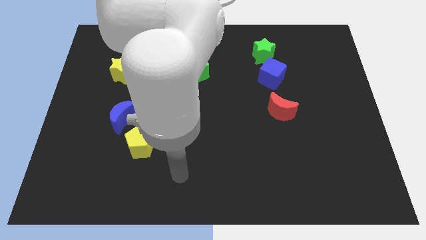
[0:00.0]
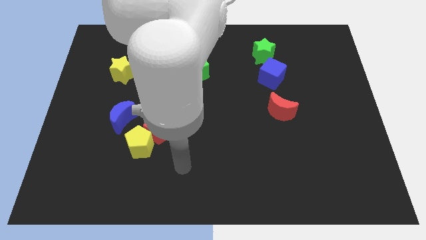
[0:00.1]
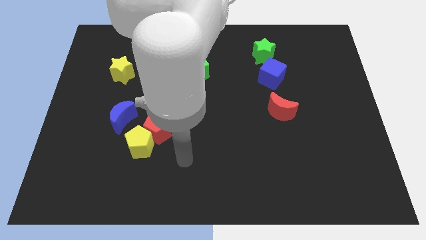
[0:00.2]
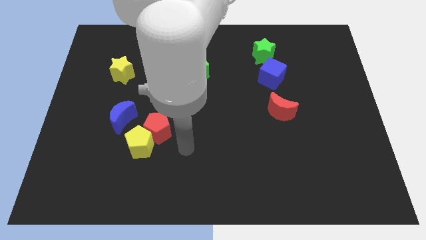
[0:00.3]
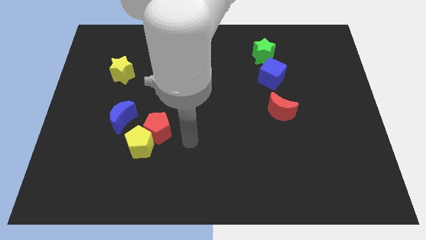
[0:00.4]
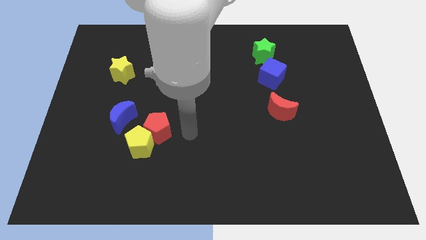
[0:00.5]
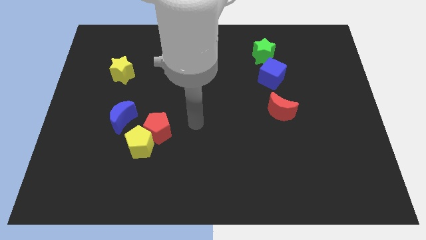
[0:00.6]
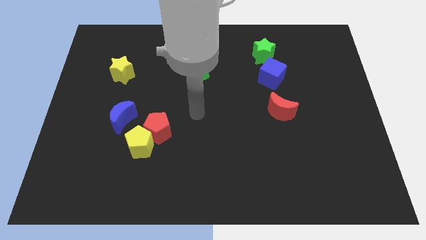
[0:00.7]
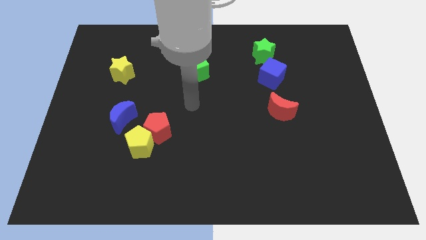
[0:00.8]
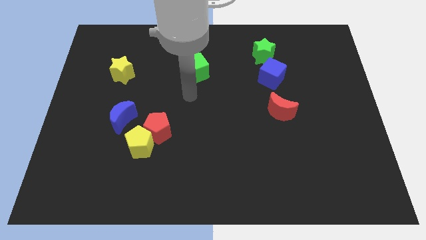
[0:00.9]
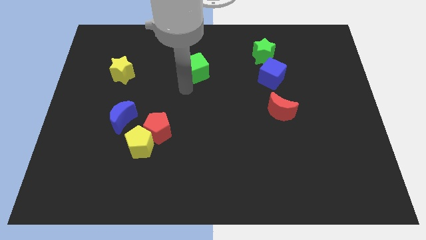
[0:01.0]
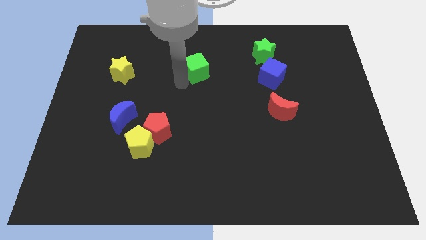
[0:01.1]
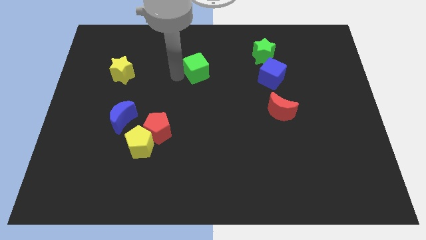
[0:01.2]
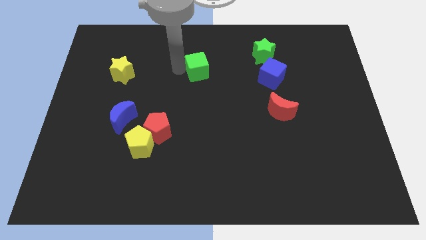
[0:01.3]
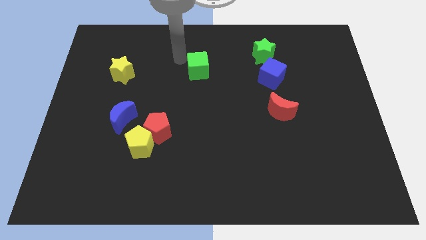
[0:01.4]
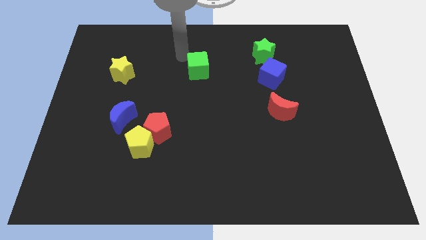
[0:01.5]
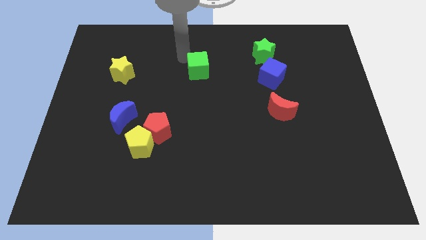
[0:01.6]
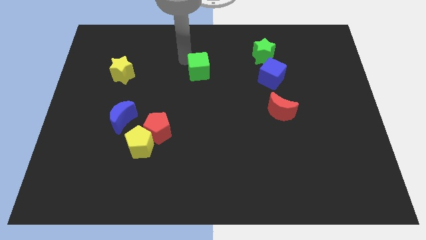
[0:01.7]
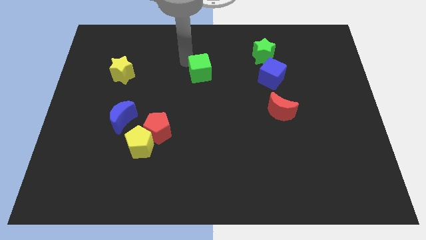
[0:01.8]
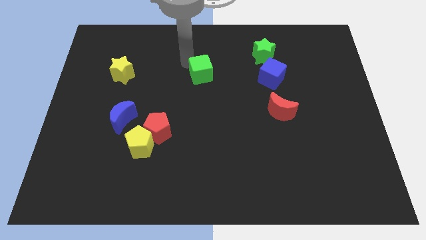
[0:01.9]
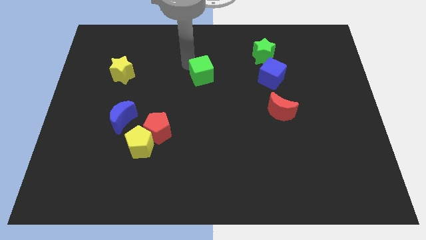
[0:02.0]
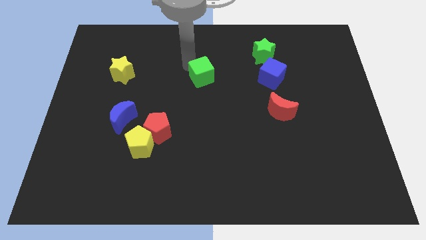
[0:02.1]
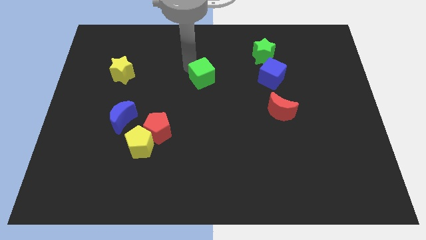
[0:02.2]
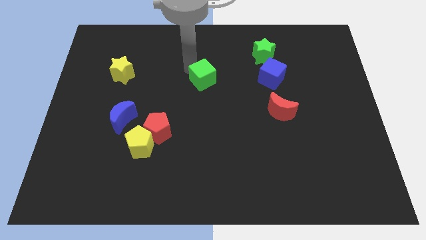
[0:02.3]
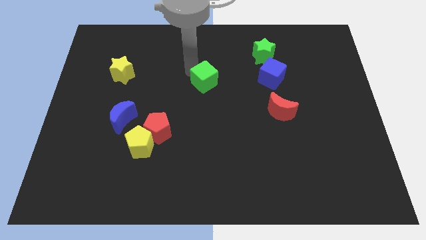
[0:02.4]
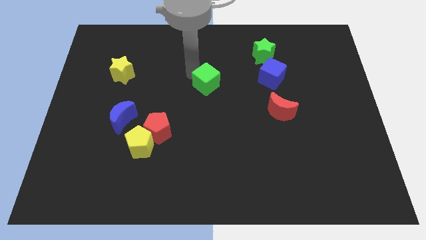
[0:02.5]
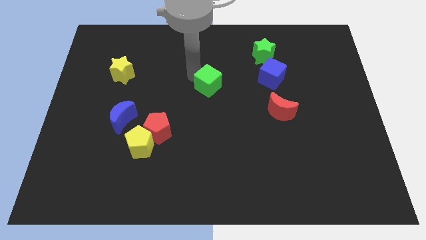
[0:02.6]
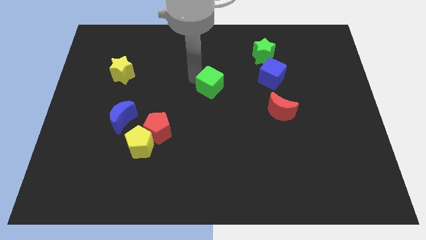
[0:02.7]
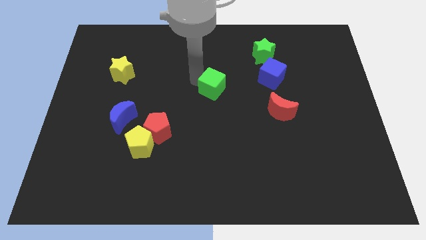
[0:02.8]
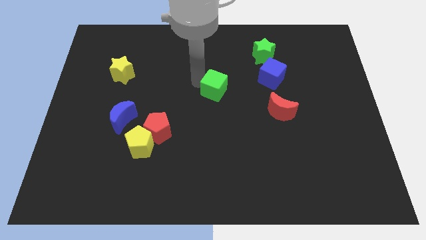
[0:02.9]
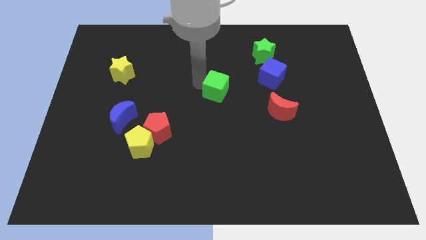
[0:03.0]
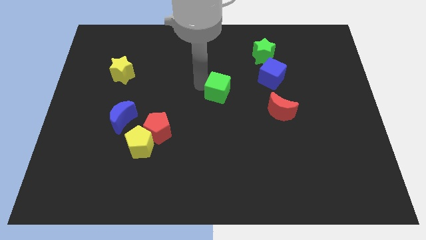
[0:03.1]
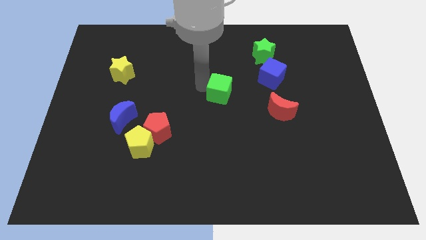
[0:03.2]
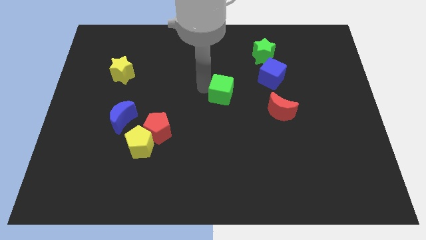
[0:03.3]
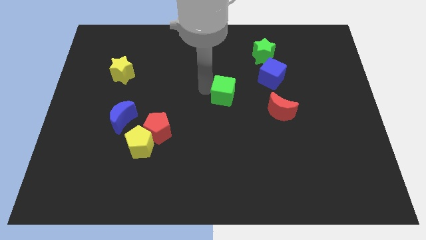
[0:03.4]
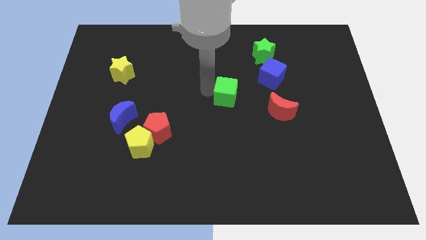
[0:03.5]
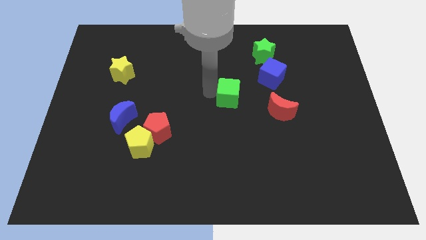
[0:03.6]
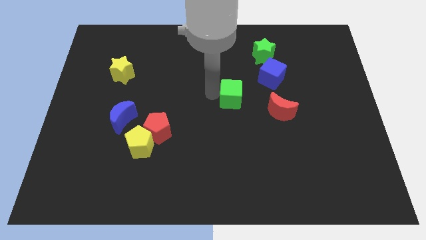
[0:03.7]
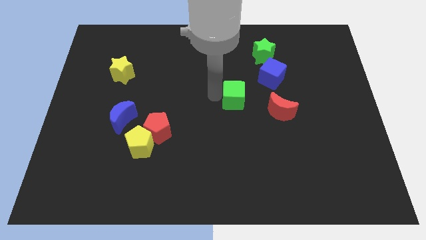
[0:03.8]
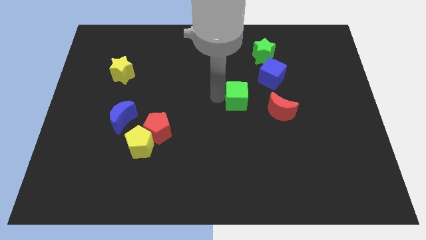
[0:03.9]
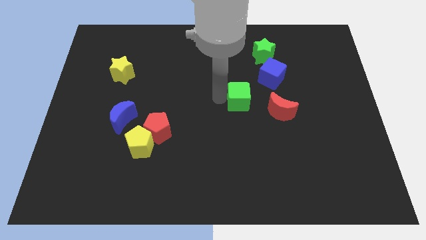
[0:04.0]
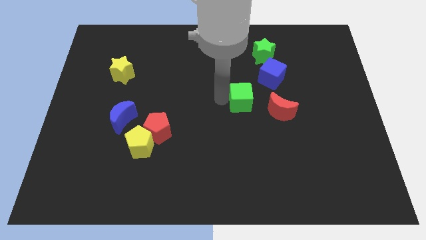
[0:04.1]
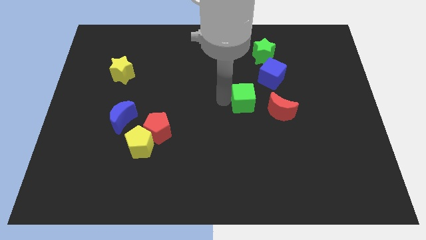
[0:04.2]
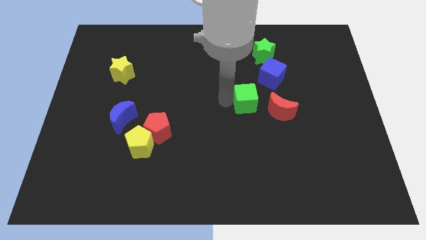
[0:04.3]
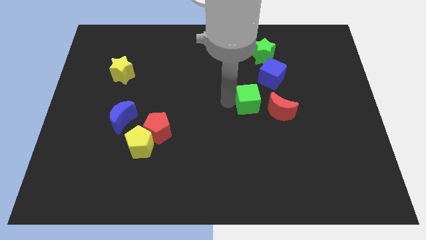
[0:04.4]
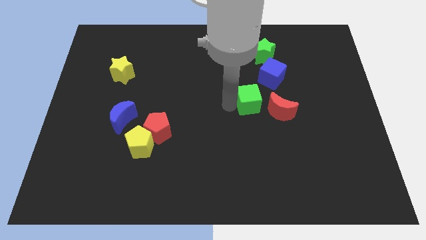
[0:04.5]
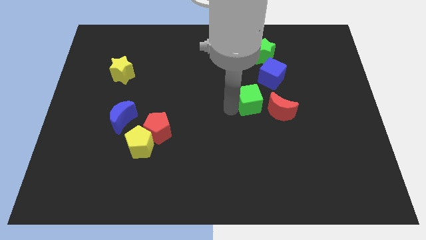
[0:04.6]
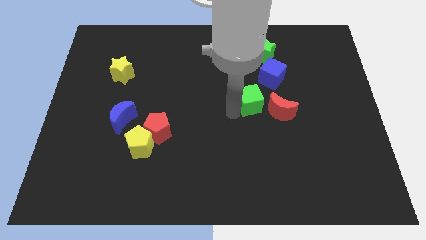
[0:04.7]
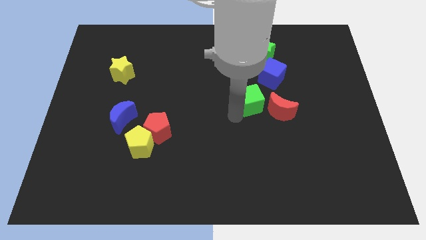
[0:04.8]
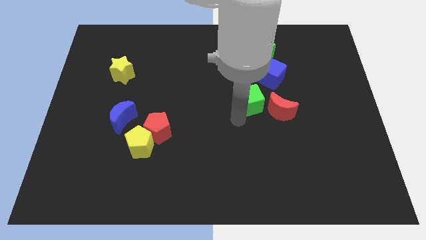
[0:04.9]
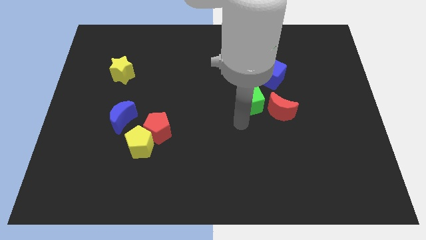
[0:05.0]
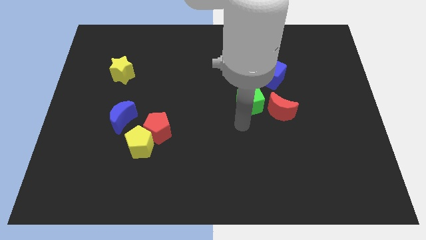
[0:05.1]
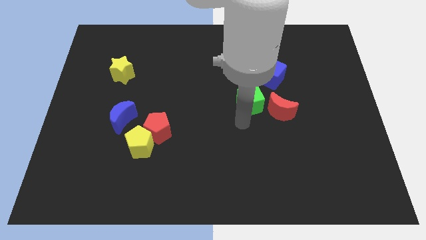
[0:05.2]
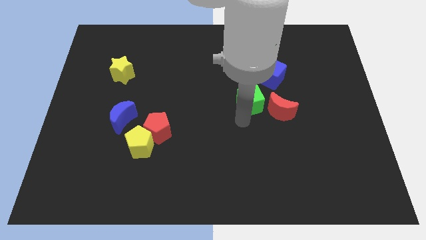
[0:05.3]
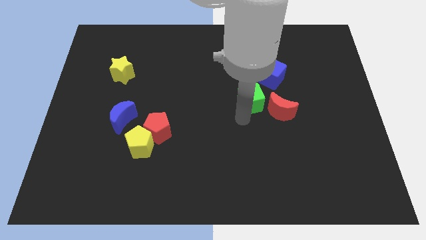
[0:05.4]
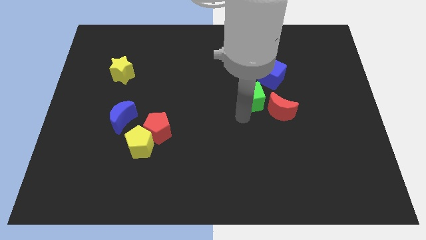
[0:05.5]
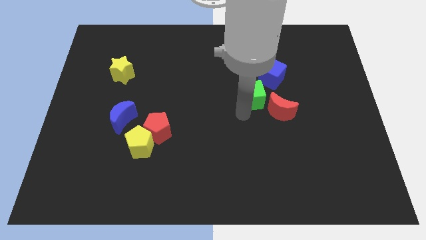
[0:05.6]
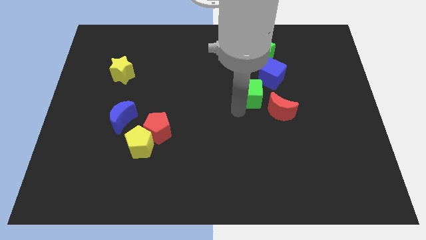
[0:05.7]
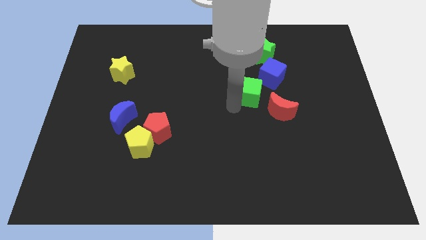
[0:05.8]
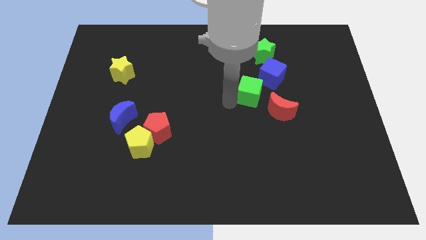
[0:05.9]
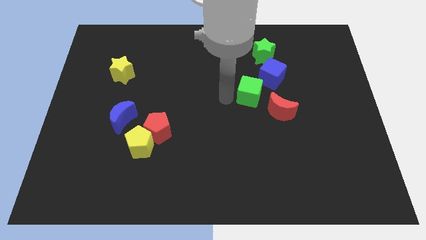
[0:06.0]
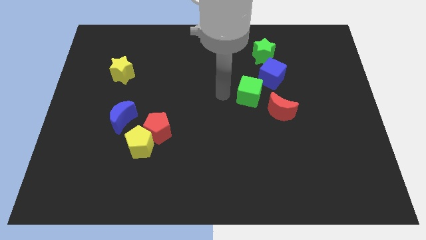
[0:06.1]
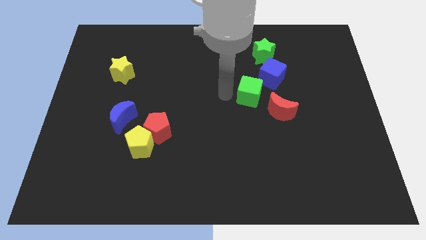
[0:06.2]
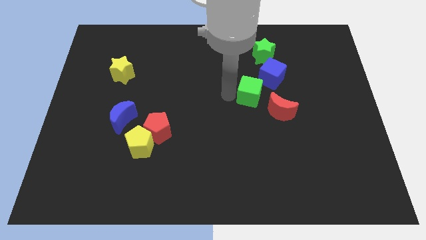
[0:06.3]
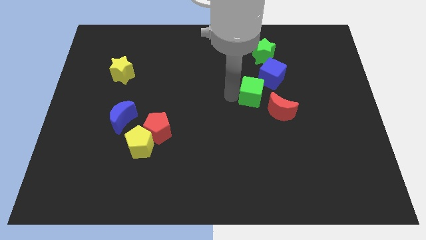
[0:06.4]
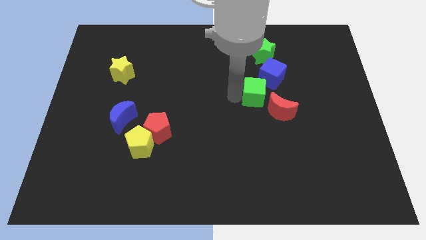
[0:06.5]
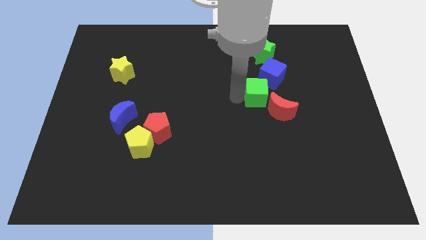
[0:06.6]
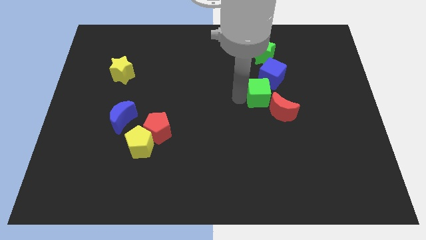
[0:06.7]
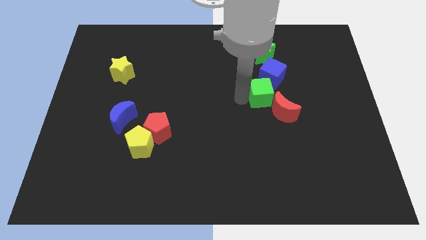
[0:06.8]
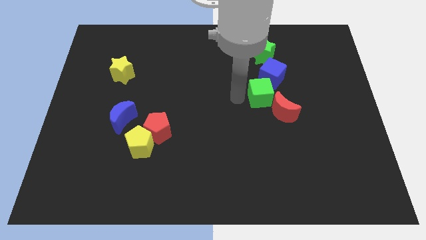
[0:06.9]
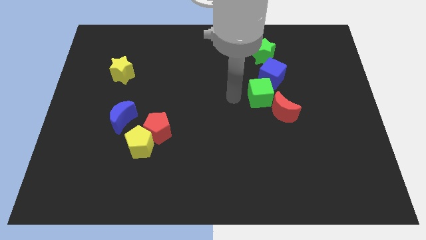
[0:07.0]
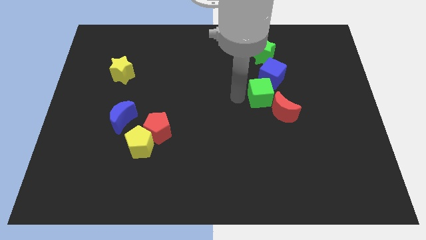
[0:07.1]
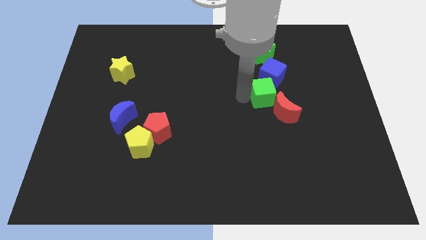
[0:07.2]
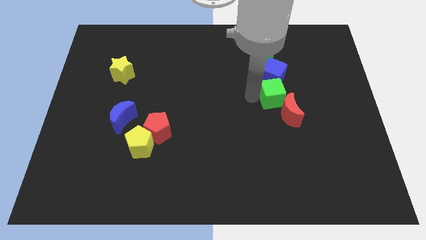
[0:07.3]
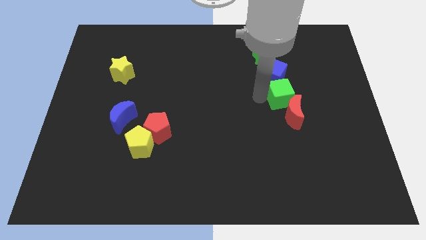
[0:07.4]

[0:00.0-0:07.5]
move the green cube diagonally down and to the right of the blue cube

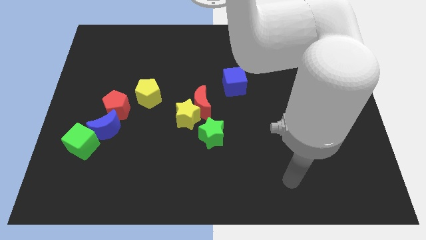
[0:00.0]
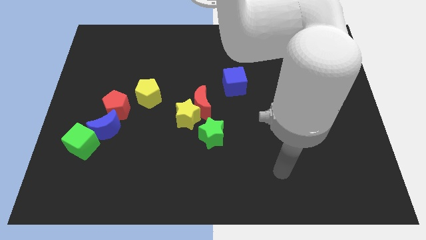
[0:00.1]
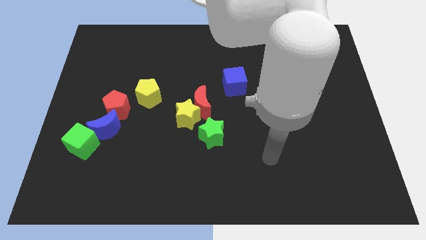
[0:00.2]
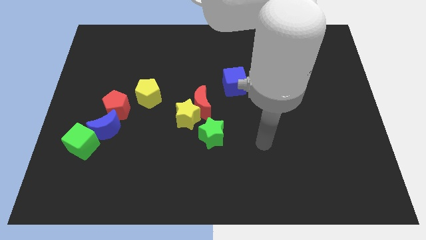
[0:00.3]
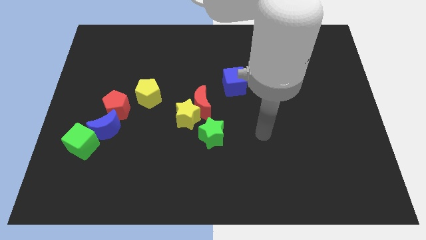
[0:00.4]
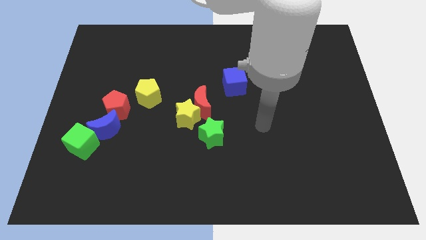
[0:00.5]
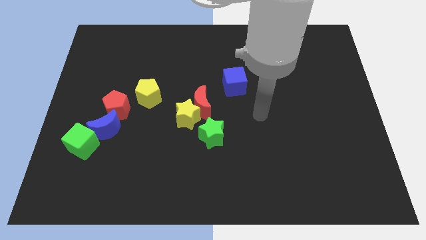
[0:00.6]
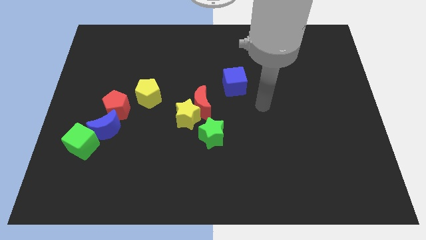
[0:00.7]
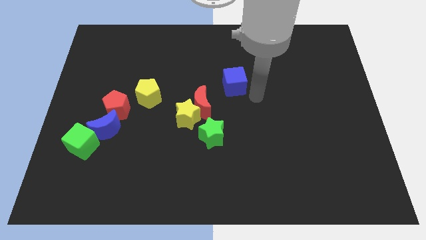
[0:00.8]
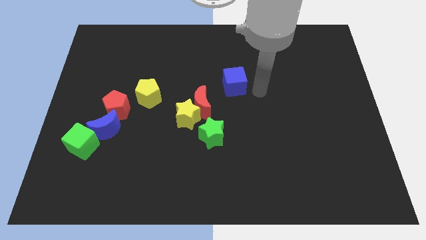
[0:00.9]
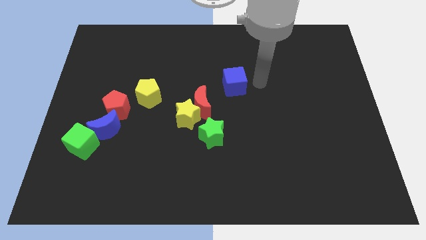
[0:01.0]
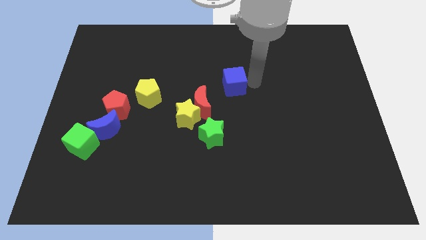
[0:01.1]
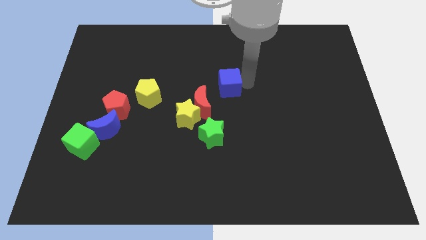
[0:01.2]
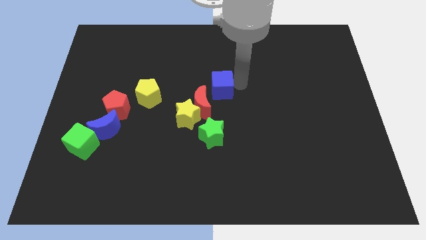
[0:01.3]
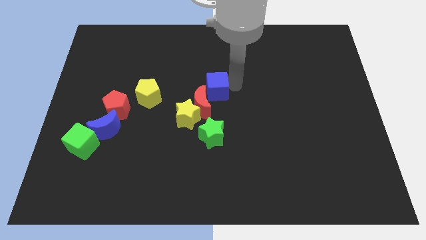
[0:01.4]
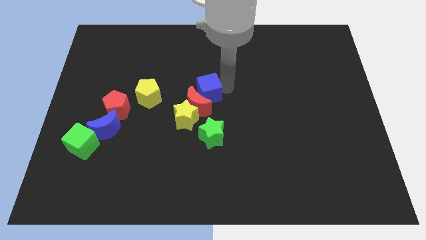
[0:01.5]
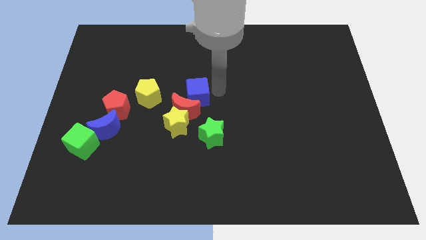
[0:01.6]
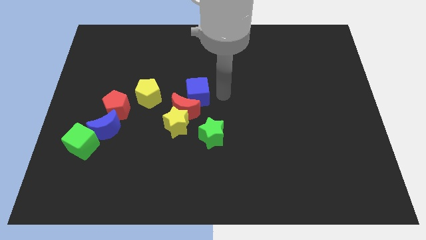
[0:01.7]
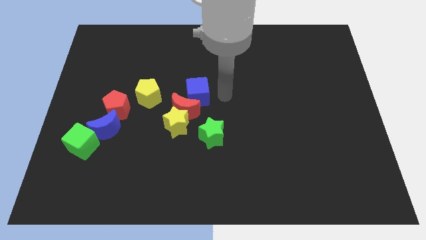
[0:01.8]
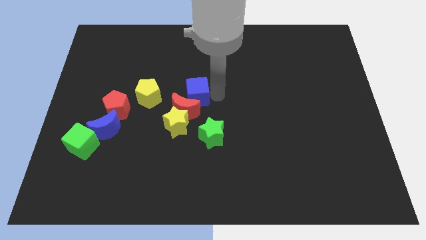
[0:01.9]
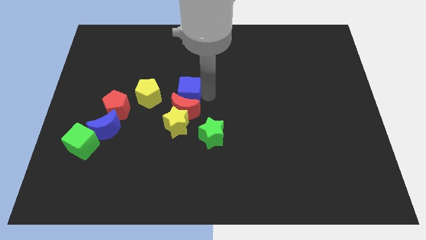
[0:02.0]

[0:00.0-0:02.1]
slide the blue cube to the top left side of the red moon
